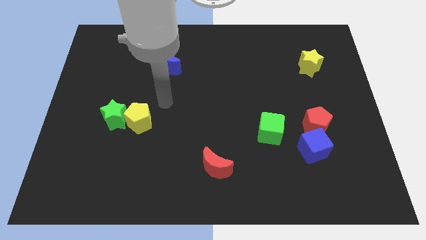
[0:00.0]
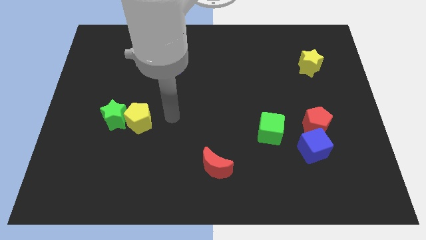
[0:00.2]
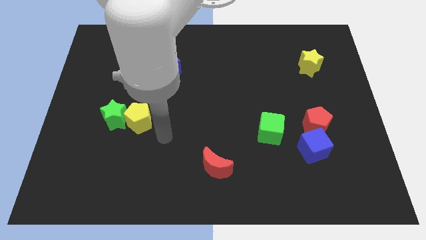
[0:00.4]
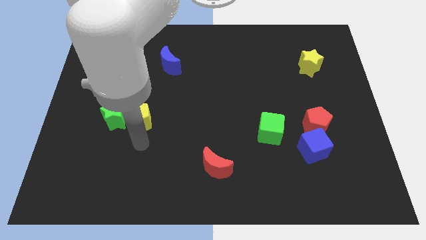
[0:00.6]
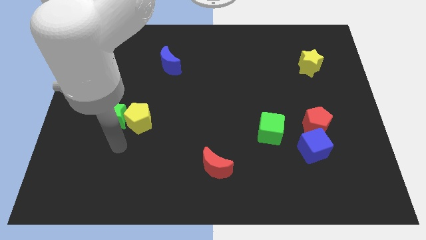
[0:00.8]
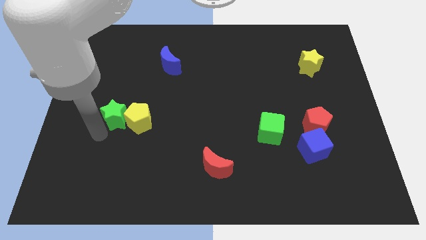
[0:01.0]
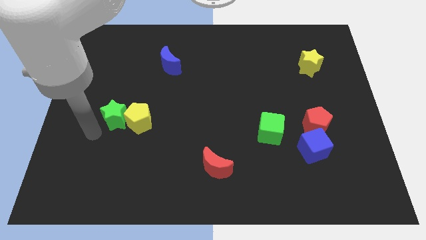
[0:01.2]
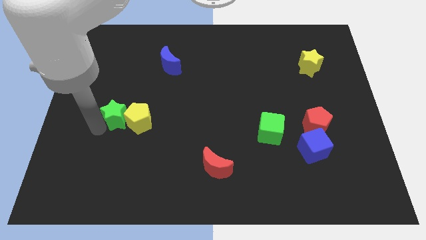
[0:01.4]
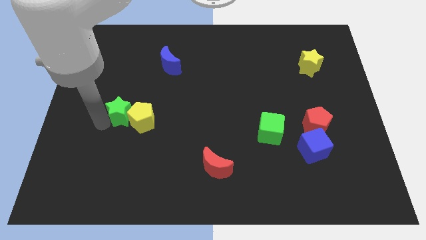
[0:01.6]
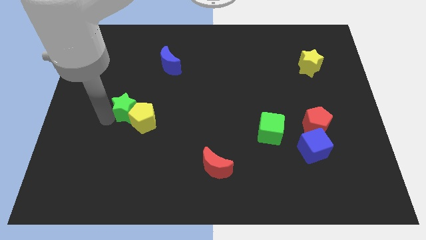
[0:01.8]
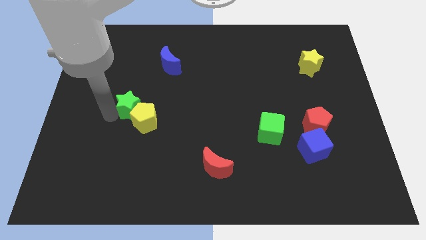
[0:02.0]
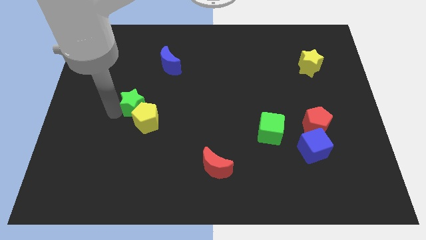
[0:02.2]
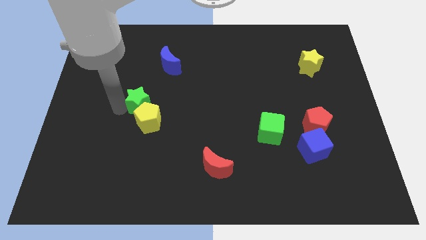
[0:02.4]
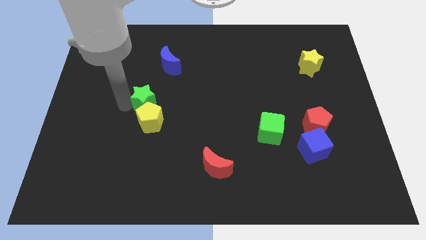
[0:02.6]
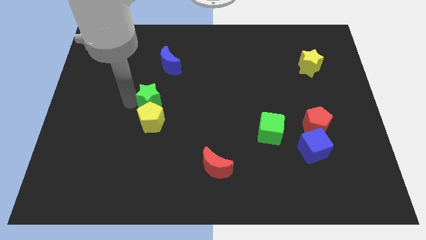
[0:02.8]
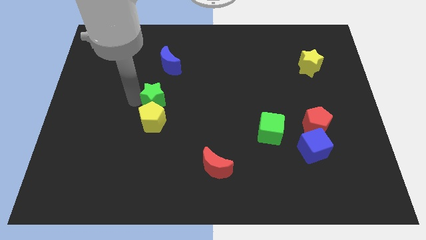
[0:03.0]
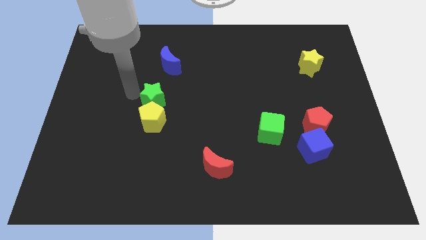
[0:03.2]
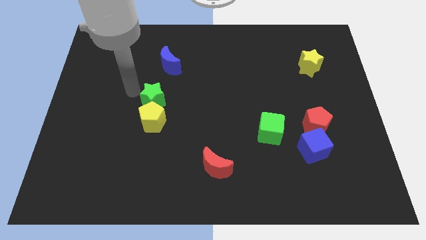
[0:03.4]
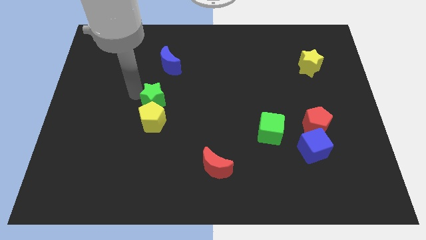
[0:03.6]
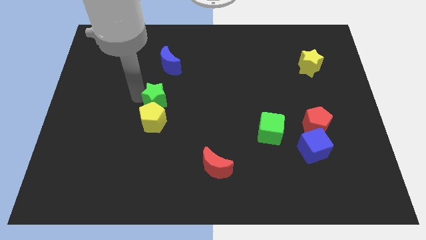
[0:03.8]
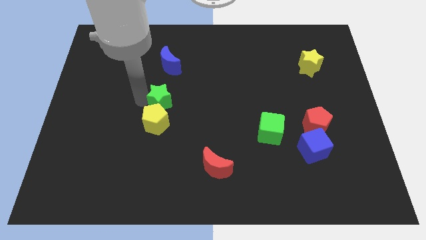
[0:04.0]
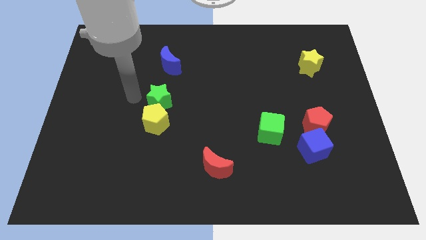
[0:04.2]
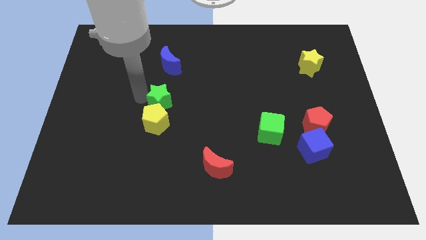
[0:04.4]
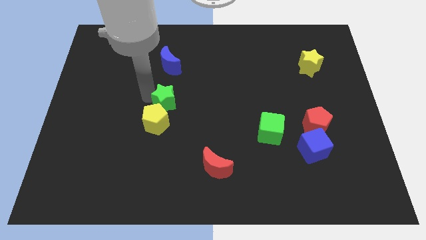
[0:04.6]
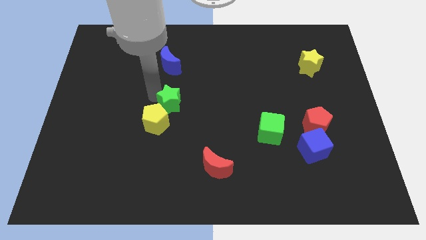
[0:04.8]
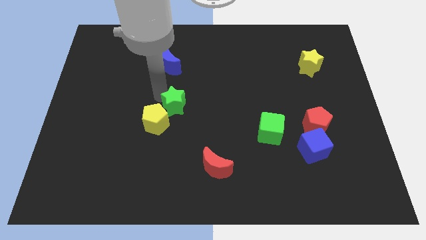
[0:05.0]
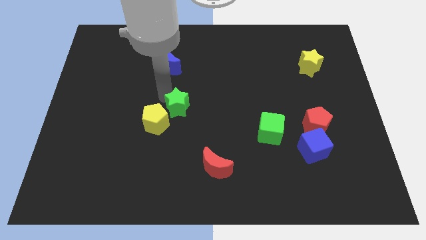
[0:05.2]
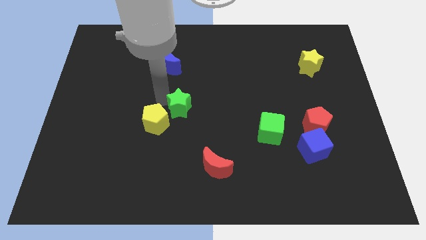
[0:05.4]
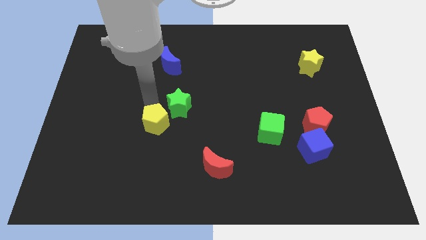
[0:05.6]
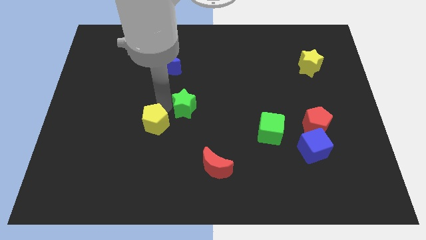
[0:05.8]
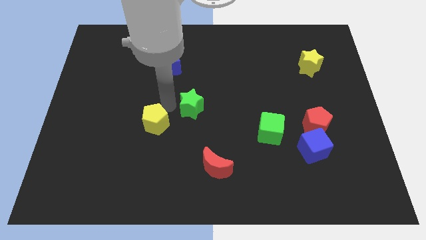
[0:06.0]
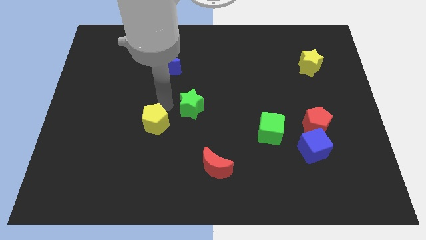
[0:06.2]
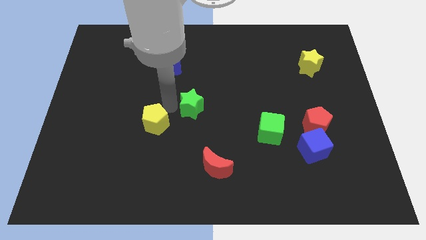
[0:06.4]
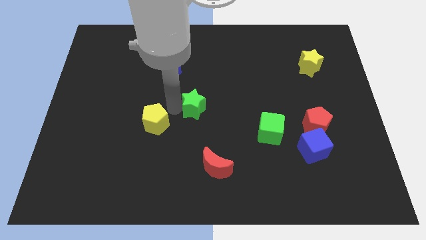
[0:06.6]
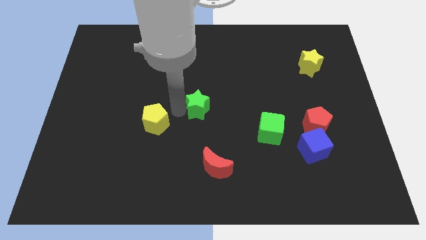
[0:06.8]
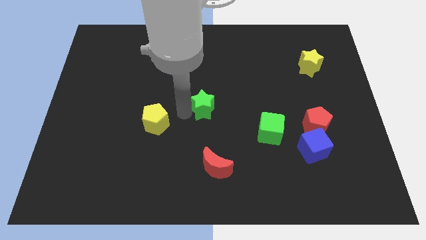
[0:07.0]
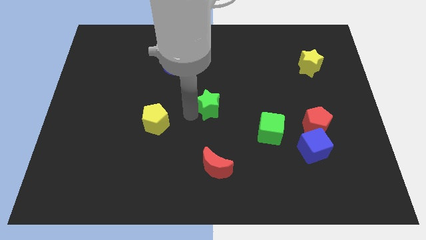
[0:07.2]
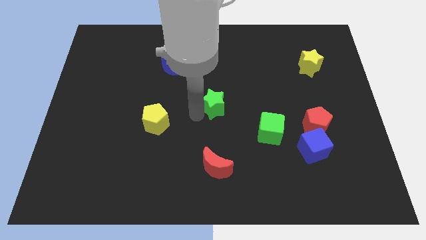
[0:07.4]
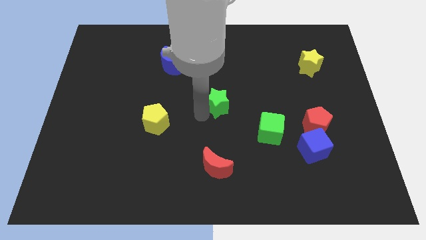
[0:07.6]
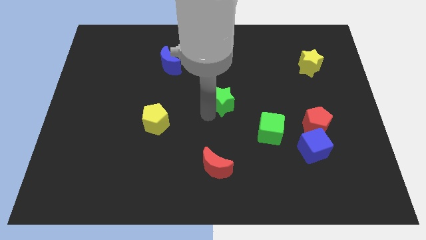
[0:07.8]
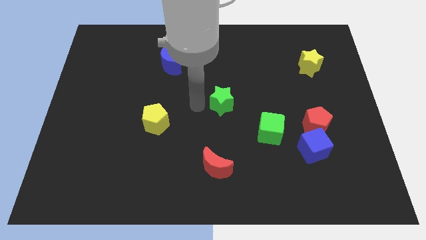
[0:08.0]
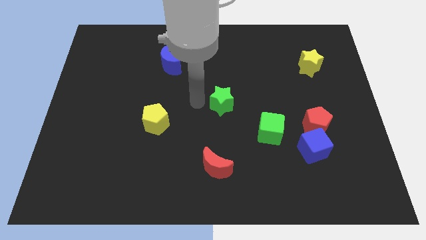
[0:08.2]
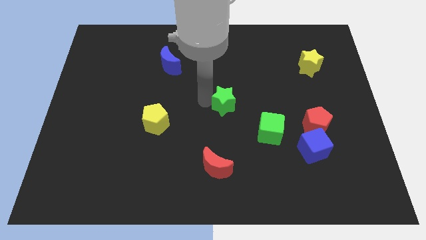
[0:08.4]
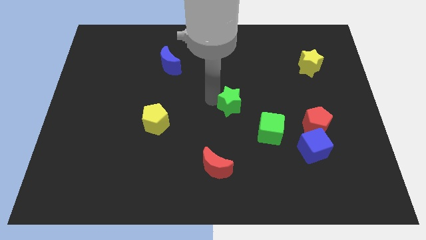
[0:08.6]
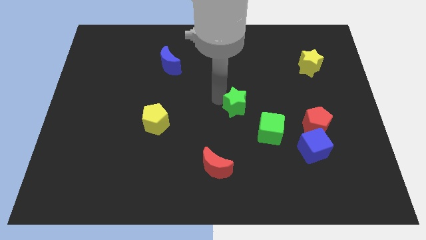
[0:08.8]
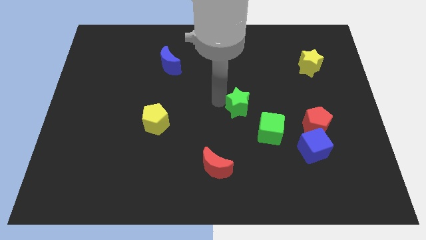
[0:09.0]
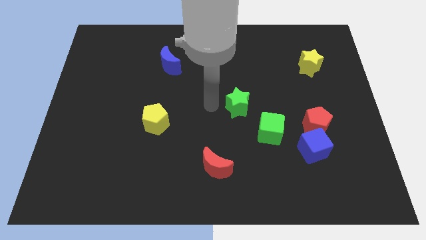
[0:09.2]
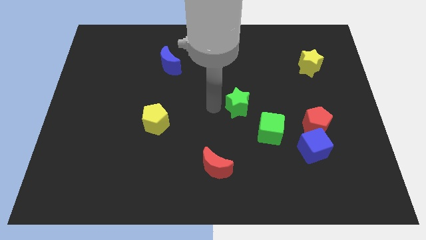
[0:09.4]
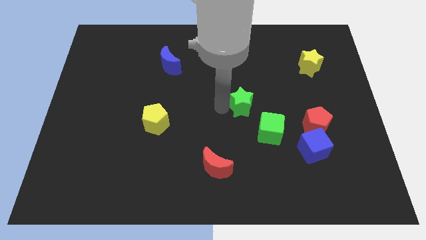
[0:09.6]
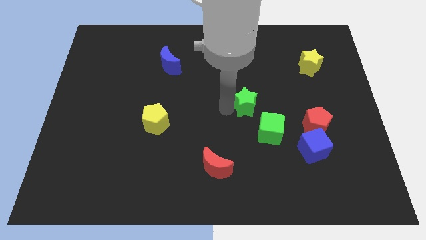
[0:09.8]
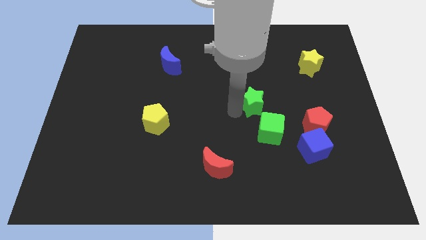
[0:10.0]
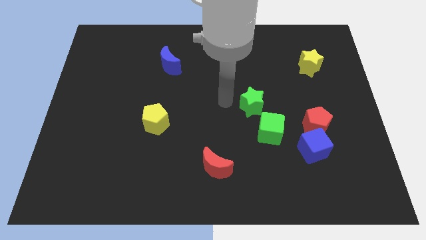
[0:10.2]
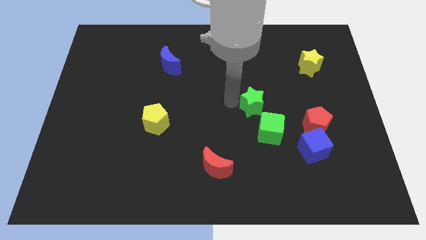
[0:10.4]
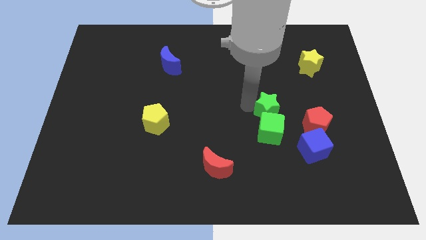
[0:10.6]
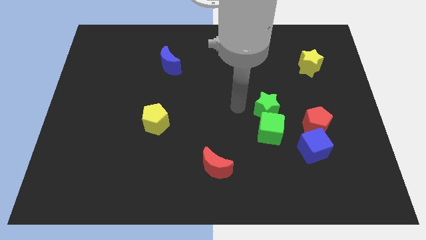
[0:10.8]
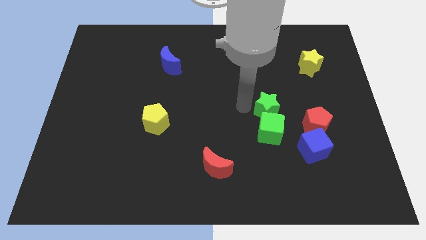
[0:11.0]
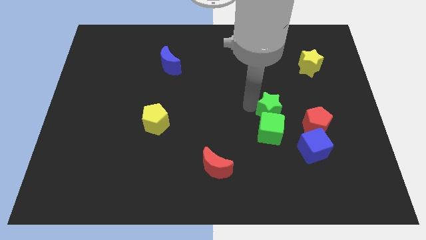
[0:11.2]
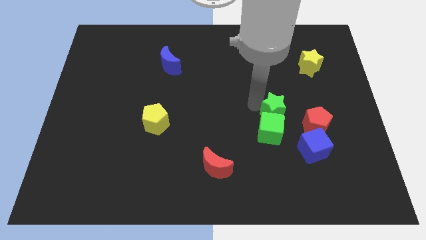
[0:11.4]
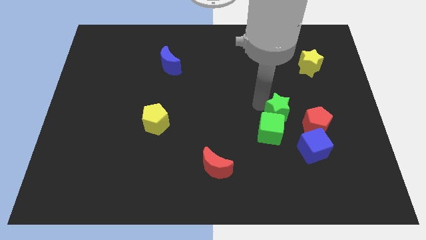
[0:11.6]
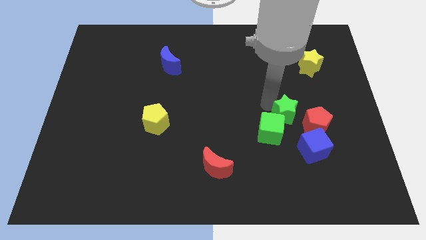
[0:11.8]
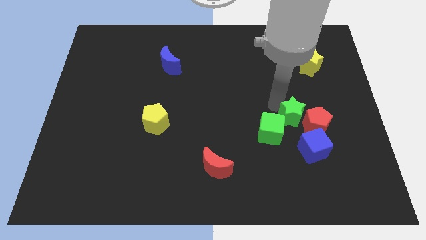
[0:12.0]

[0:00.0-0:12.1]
push the green star close to the red pentagon
